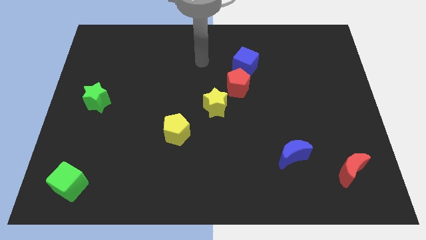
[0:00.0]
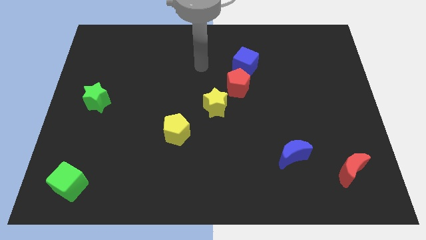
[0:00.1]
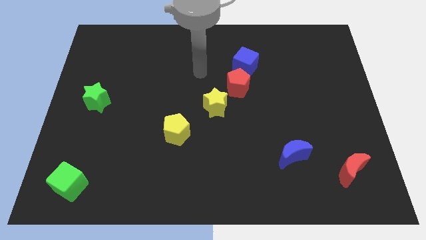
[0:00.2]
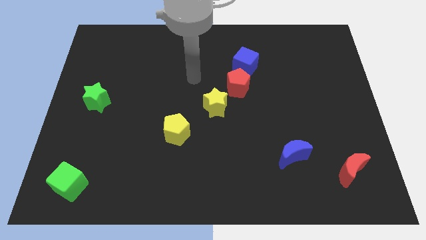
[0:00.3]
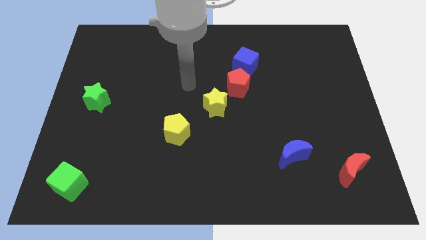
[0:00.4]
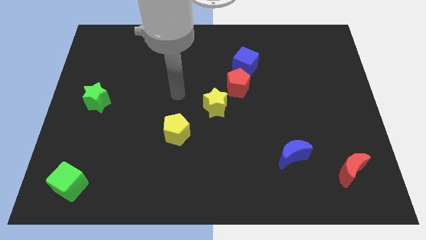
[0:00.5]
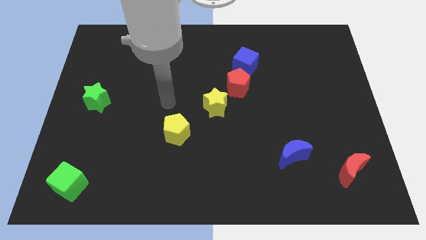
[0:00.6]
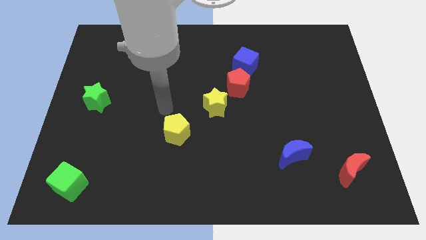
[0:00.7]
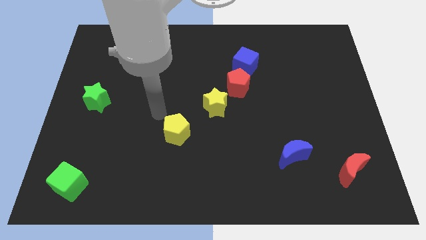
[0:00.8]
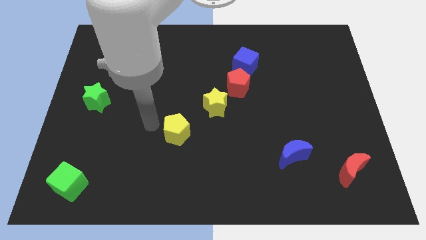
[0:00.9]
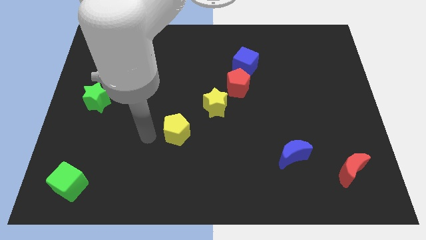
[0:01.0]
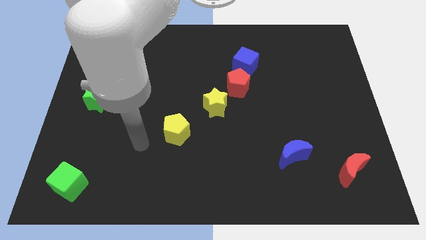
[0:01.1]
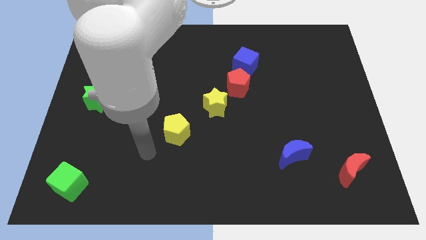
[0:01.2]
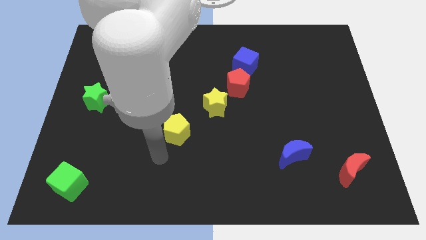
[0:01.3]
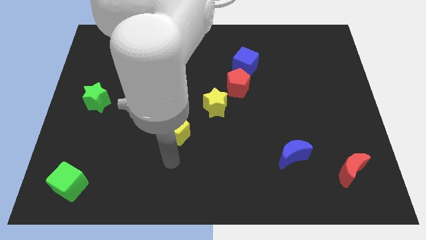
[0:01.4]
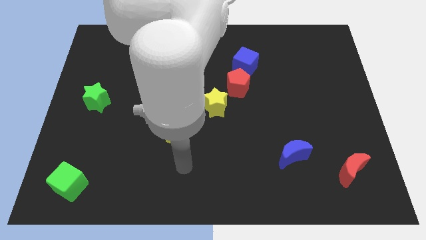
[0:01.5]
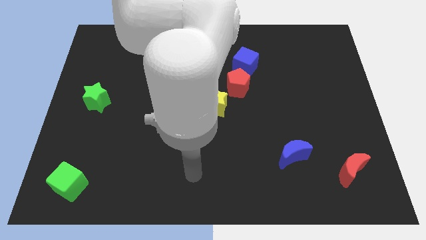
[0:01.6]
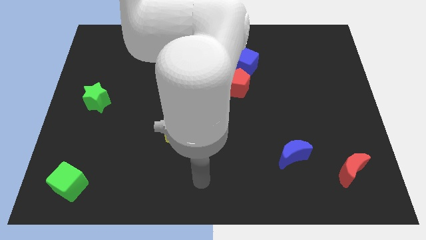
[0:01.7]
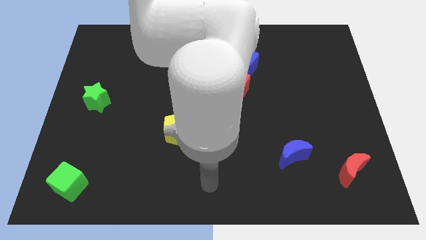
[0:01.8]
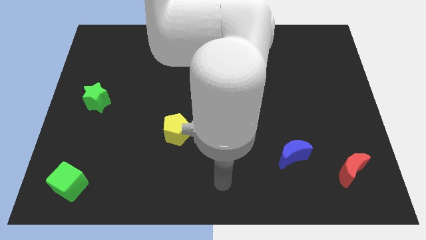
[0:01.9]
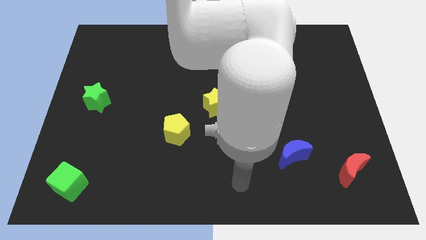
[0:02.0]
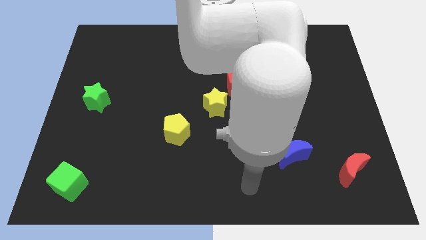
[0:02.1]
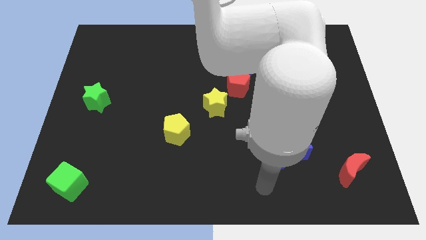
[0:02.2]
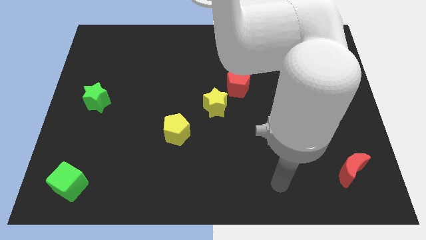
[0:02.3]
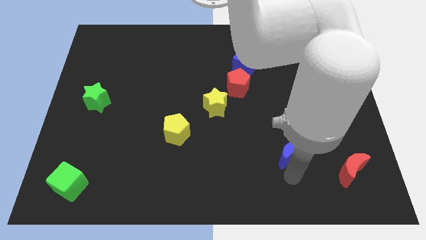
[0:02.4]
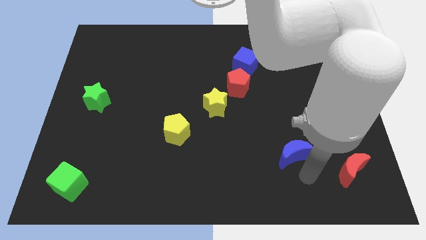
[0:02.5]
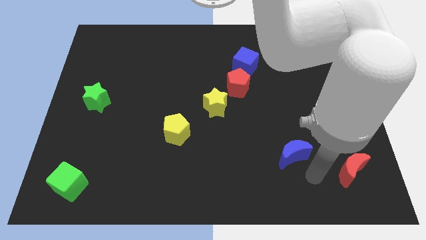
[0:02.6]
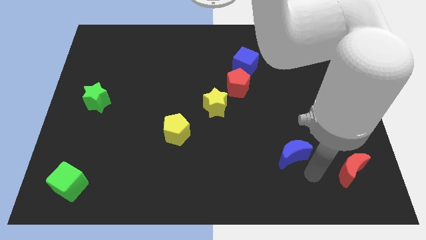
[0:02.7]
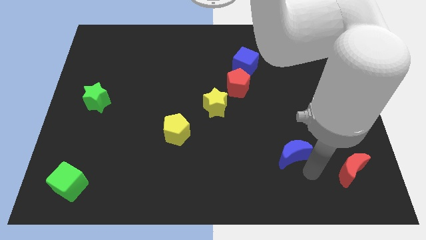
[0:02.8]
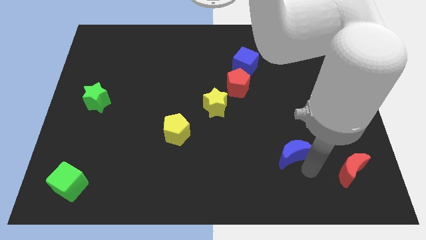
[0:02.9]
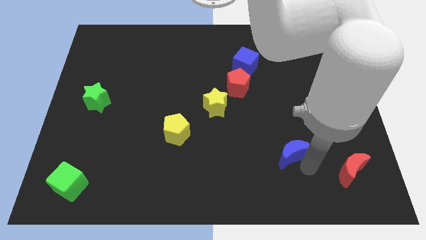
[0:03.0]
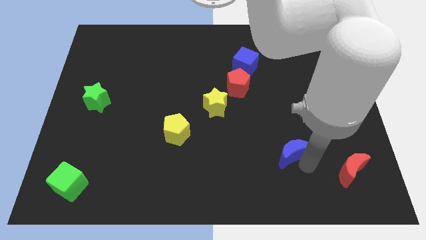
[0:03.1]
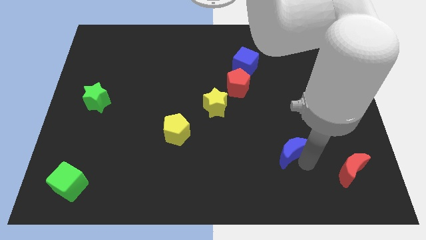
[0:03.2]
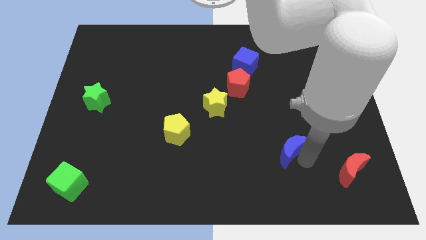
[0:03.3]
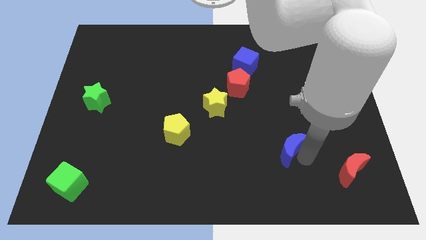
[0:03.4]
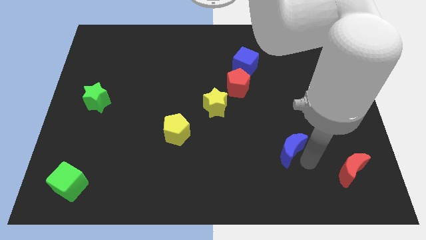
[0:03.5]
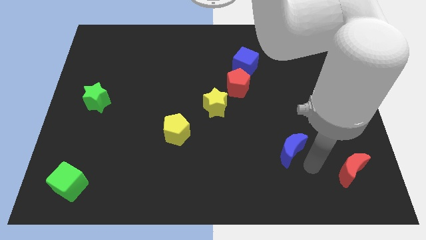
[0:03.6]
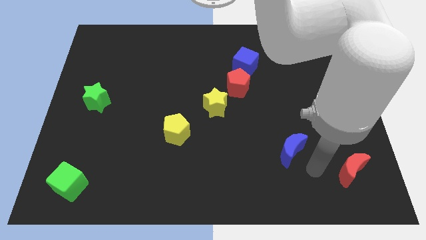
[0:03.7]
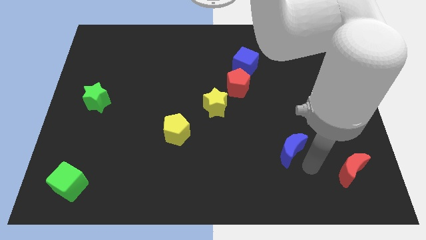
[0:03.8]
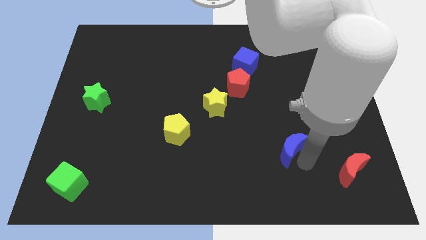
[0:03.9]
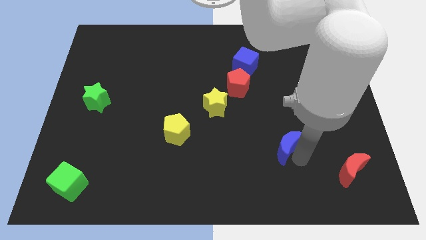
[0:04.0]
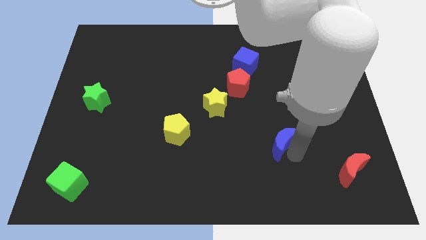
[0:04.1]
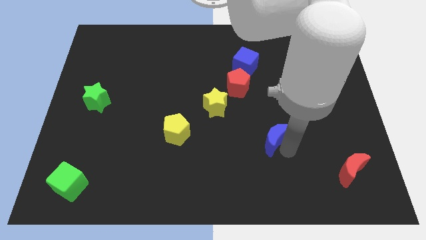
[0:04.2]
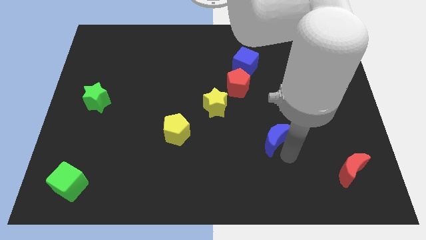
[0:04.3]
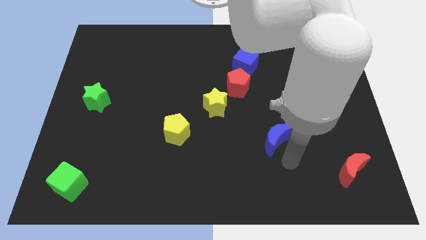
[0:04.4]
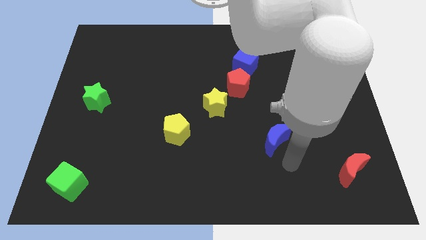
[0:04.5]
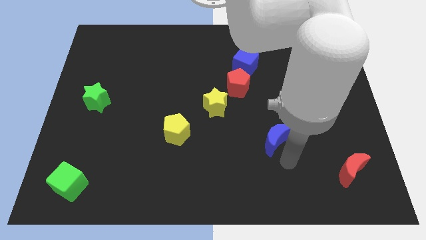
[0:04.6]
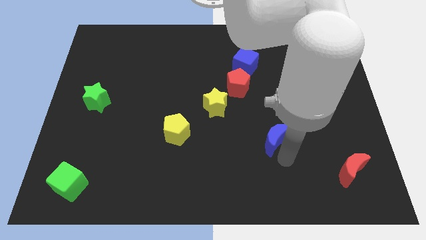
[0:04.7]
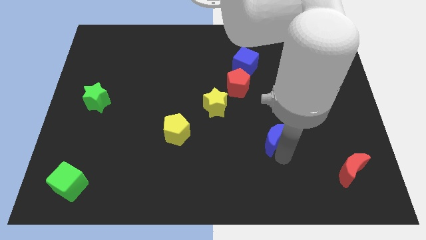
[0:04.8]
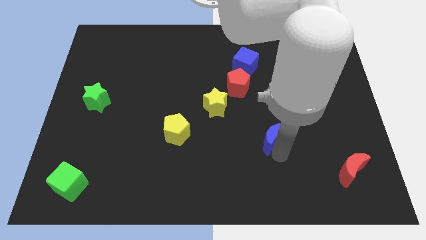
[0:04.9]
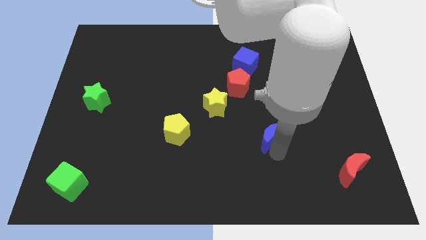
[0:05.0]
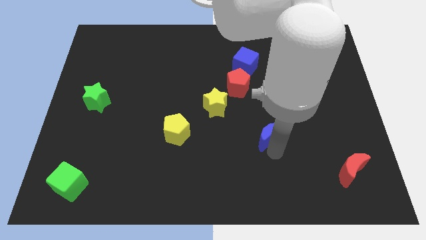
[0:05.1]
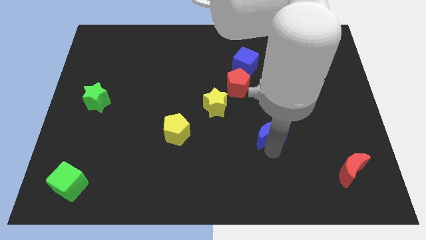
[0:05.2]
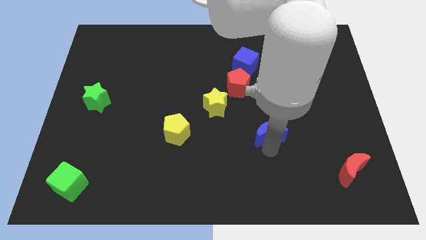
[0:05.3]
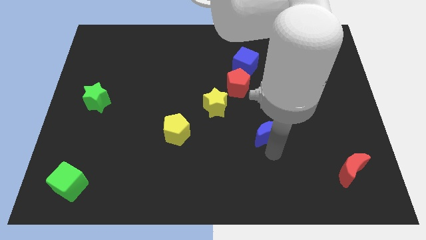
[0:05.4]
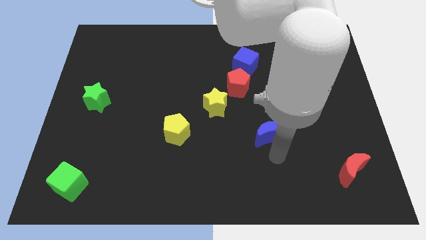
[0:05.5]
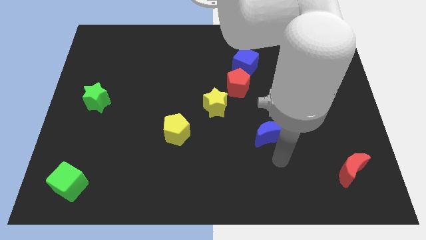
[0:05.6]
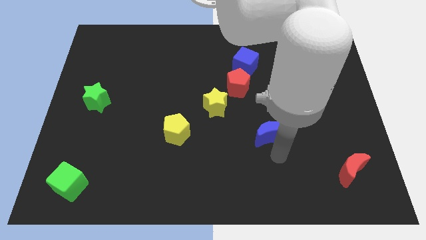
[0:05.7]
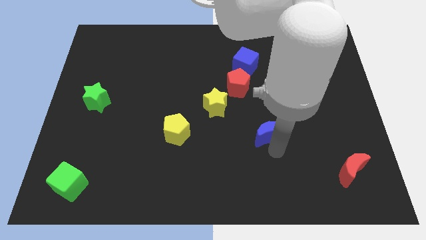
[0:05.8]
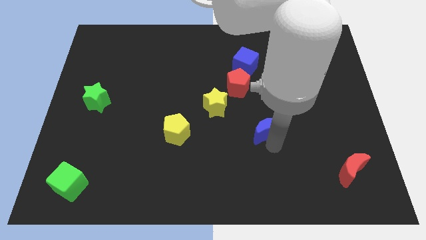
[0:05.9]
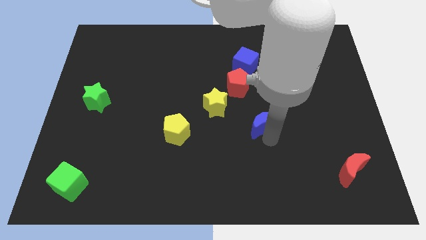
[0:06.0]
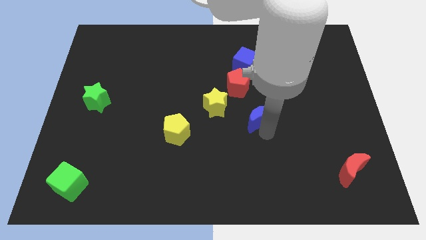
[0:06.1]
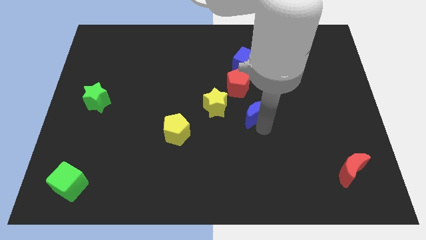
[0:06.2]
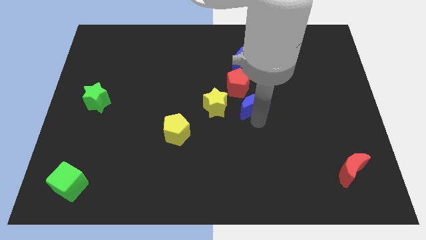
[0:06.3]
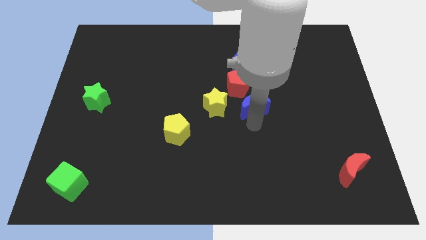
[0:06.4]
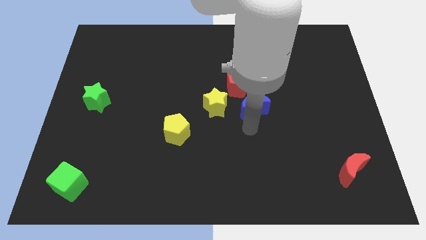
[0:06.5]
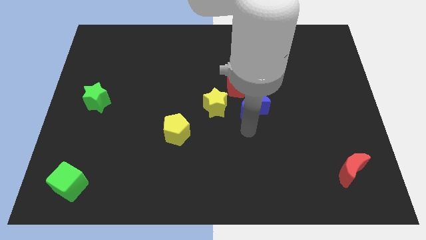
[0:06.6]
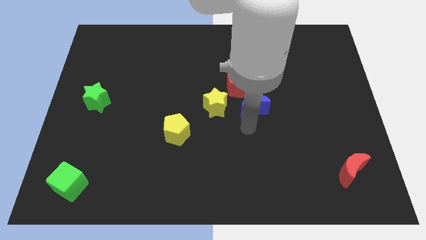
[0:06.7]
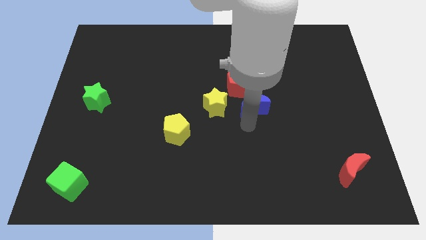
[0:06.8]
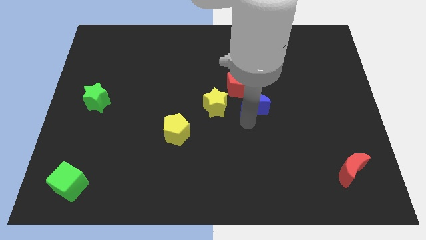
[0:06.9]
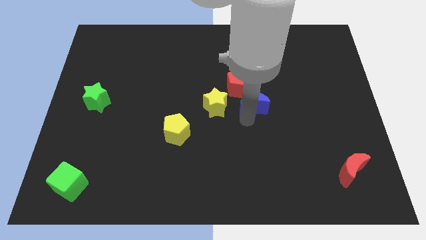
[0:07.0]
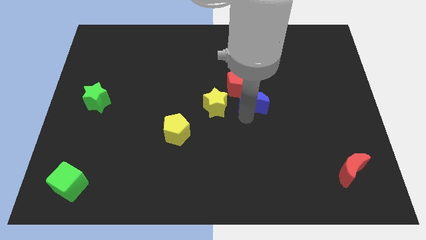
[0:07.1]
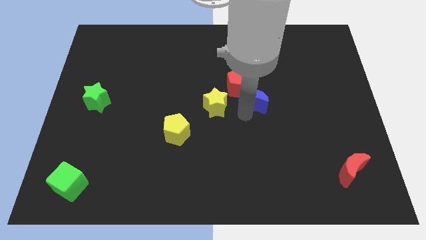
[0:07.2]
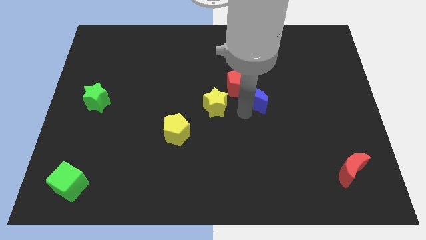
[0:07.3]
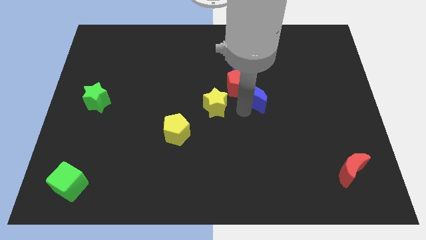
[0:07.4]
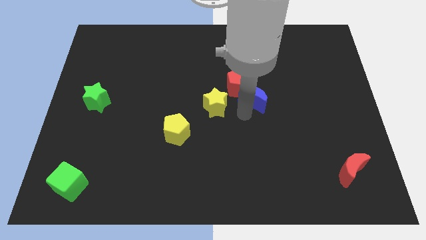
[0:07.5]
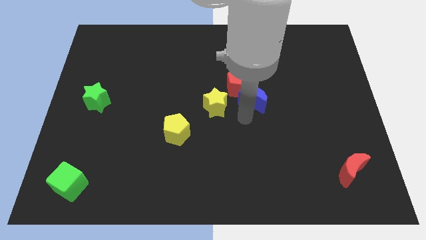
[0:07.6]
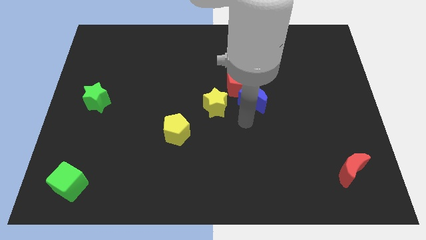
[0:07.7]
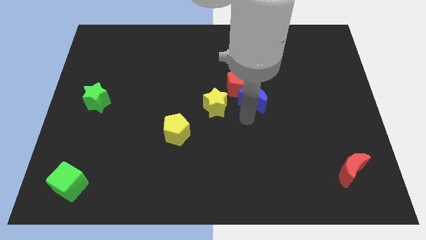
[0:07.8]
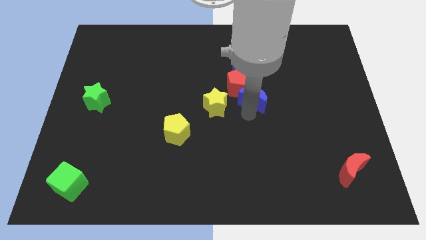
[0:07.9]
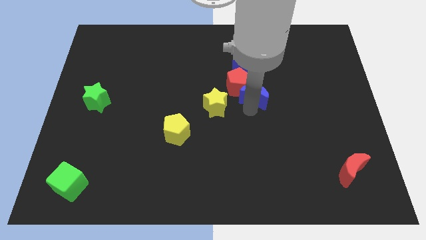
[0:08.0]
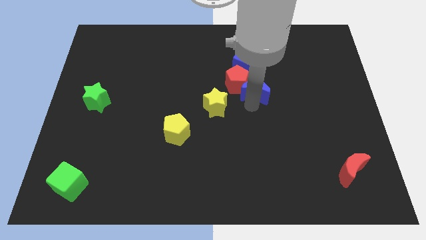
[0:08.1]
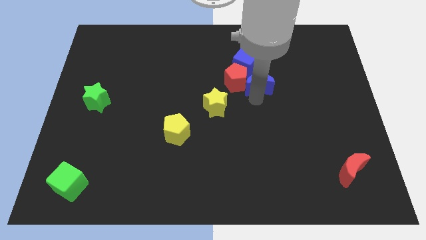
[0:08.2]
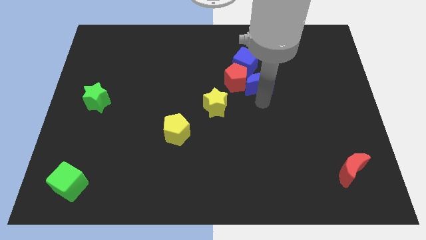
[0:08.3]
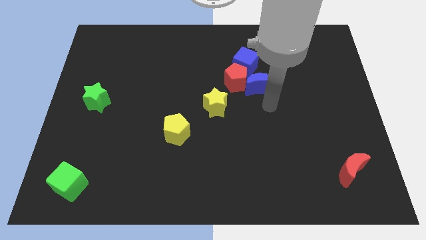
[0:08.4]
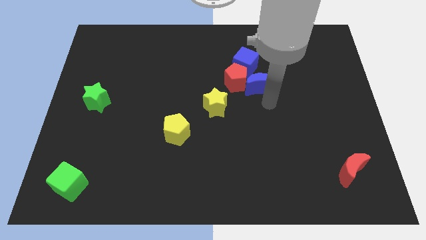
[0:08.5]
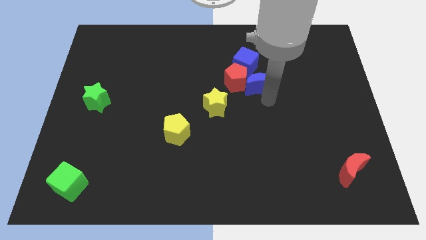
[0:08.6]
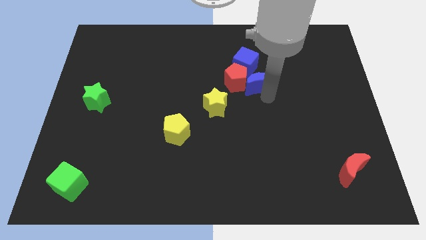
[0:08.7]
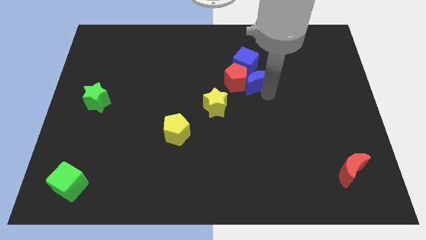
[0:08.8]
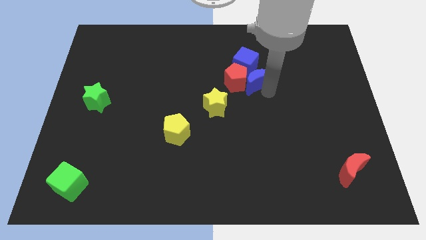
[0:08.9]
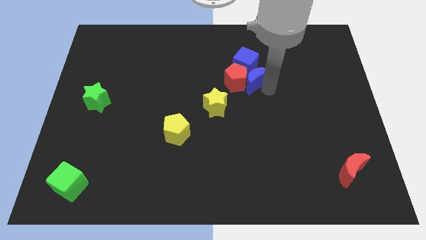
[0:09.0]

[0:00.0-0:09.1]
push the blue moon next to the blue cube
